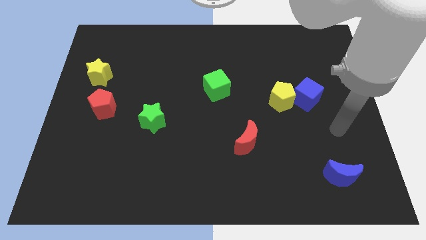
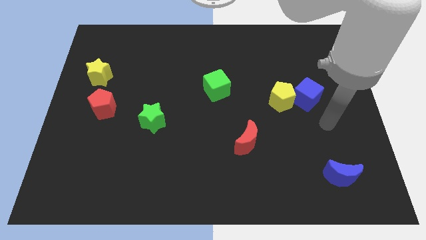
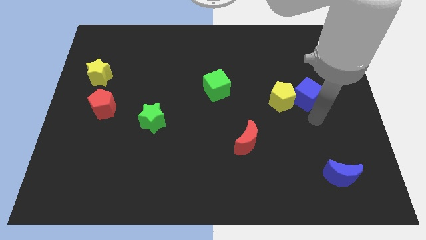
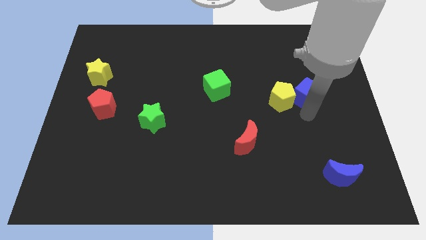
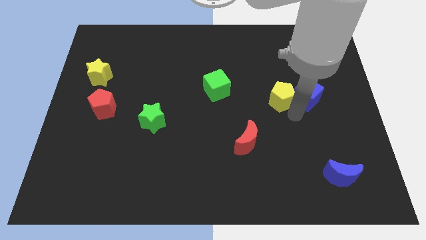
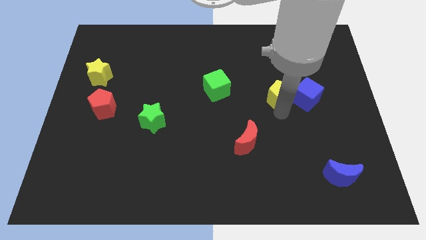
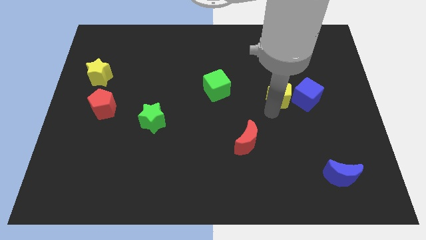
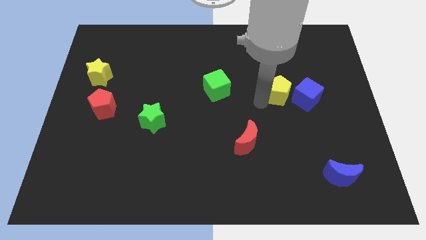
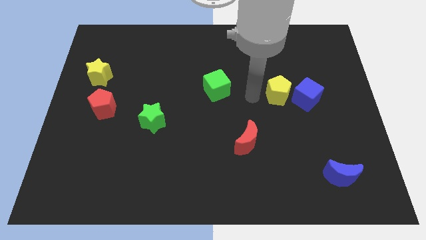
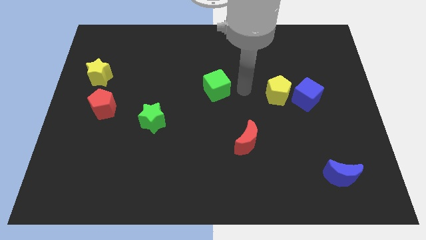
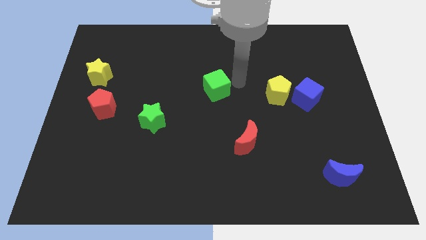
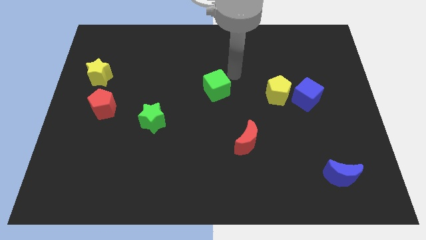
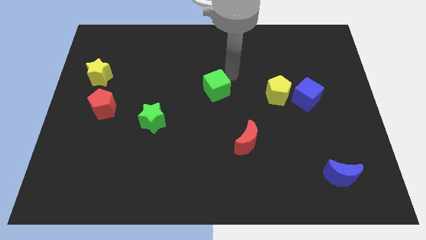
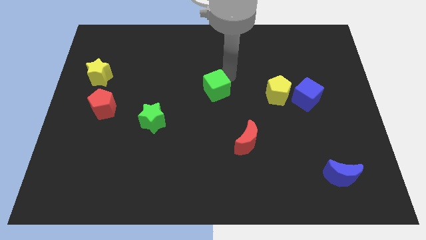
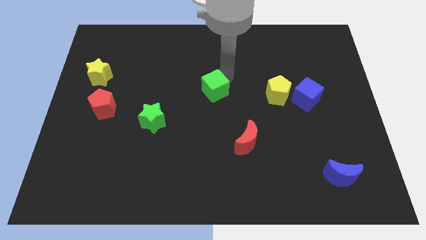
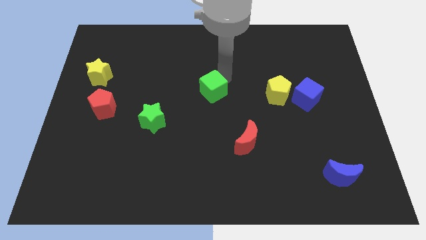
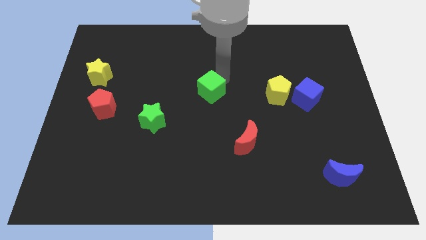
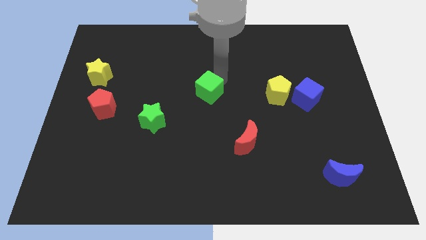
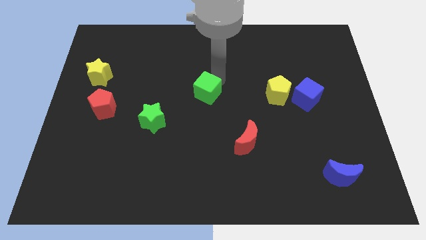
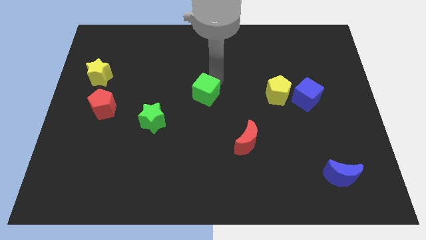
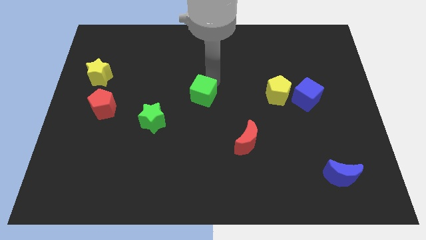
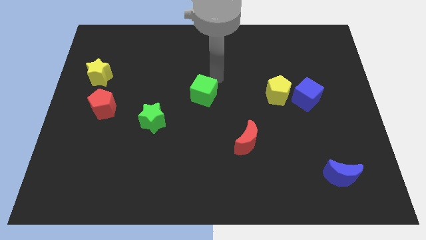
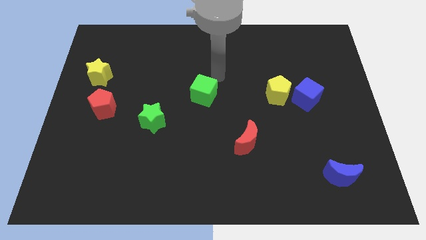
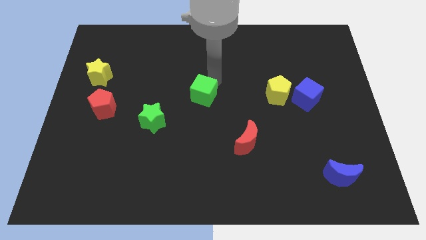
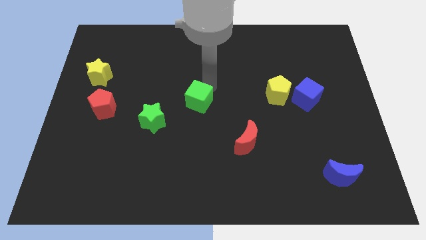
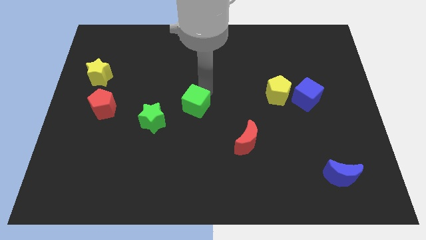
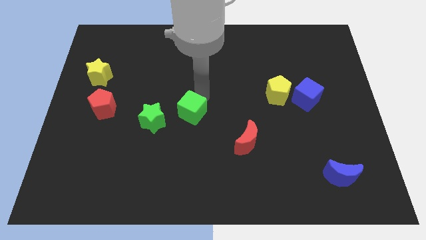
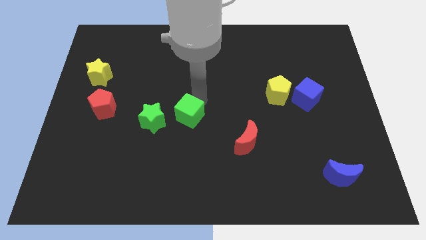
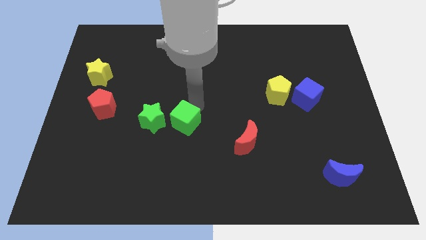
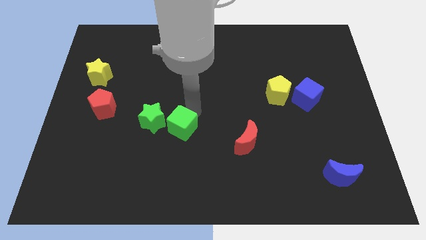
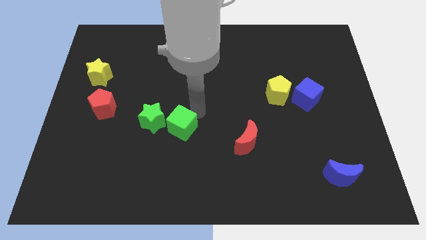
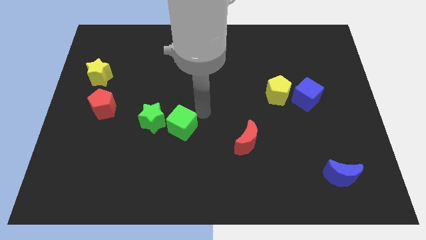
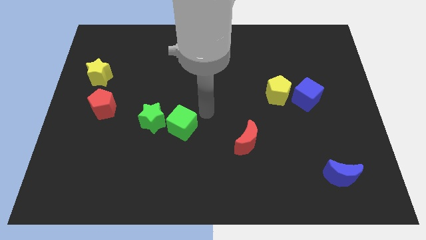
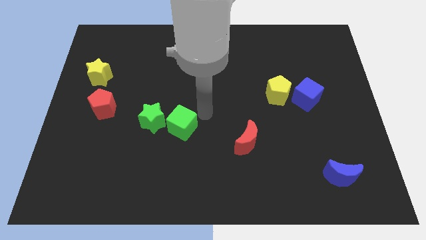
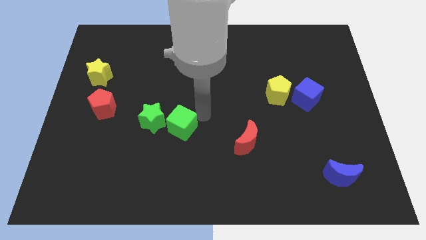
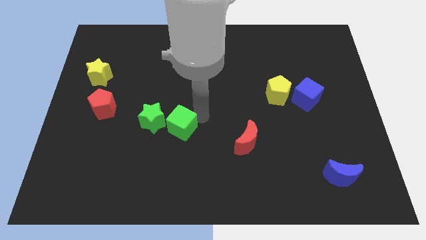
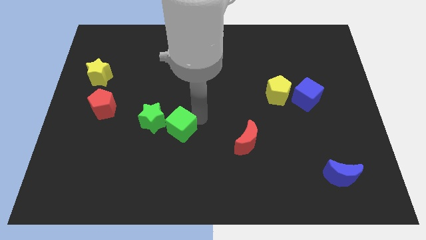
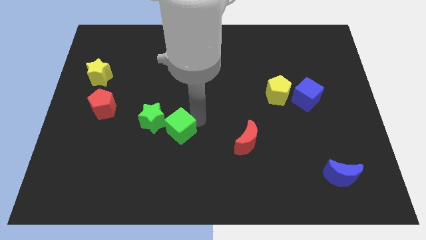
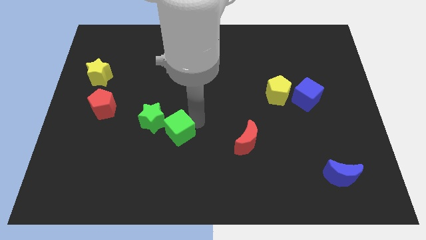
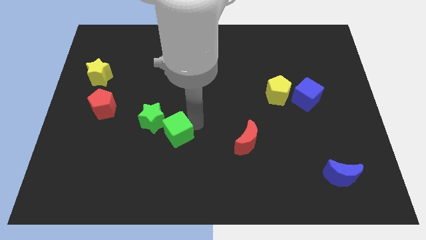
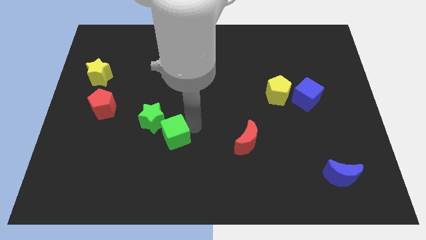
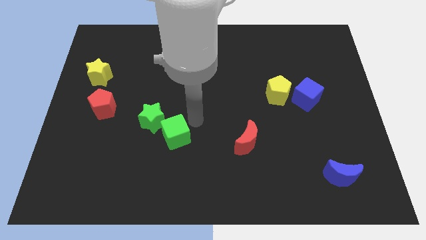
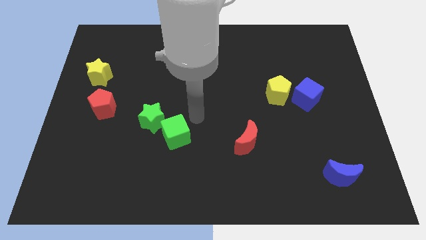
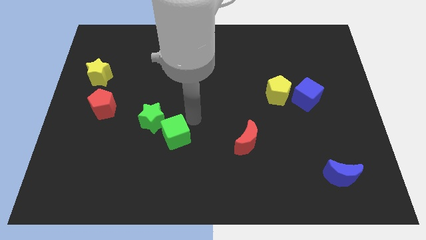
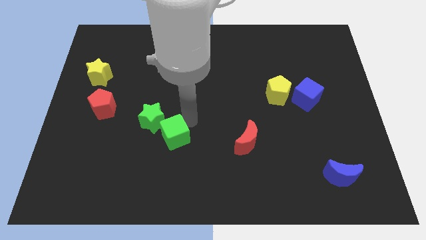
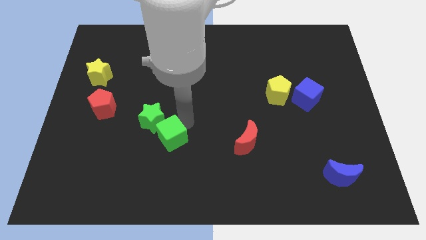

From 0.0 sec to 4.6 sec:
move the green cube below the green star

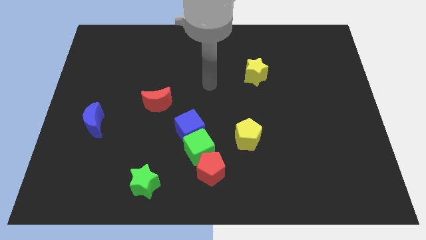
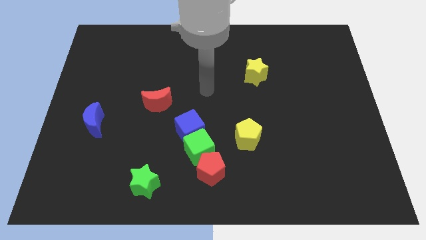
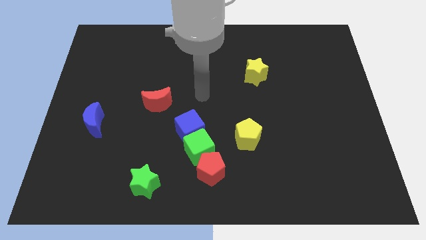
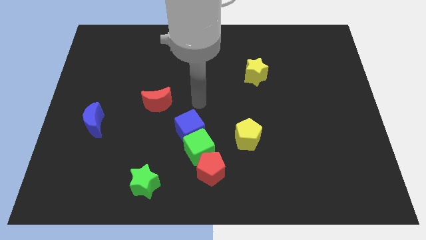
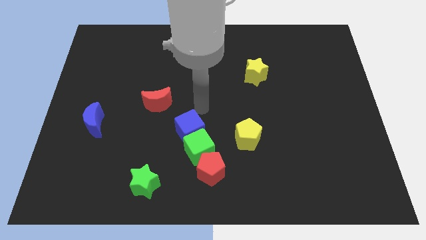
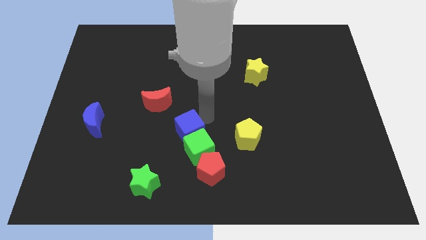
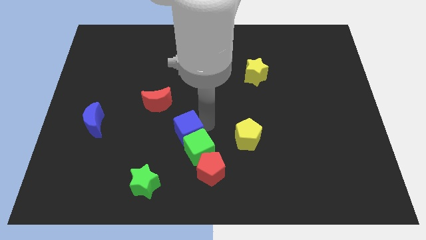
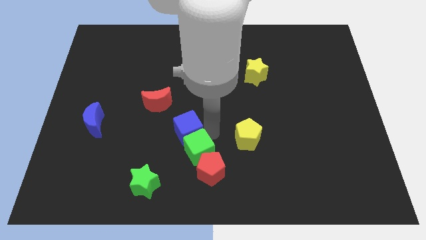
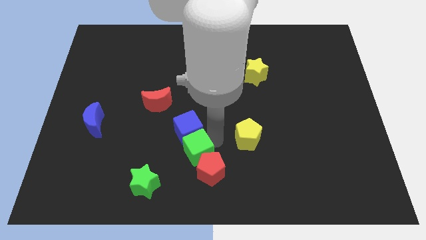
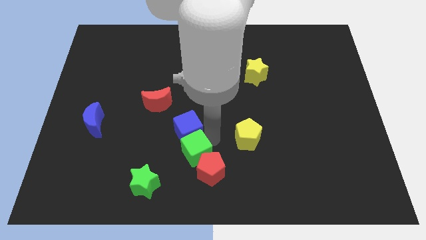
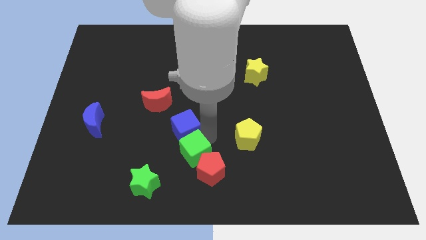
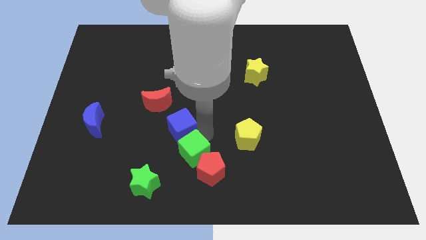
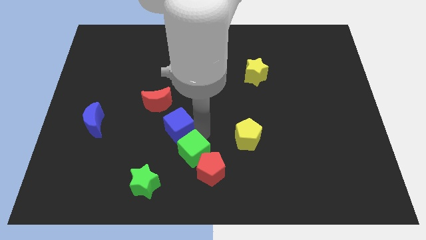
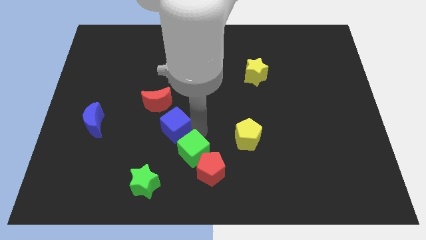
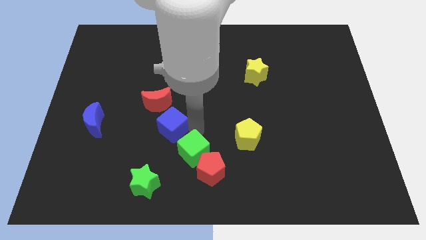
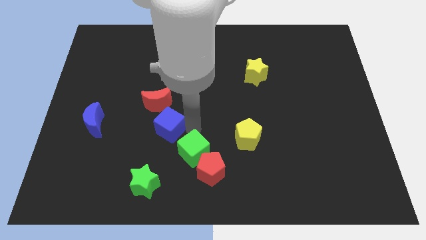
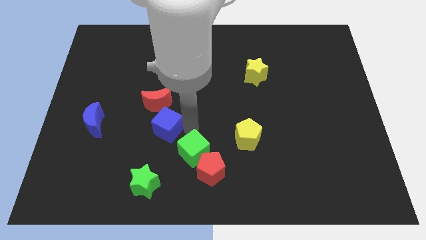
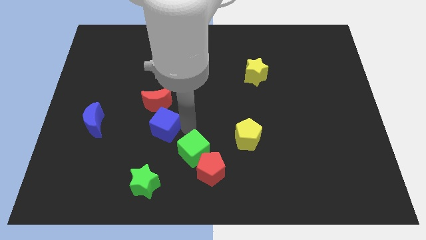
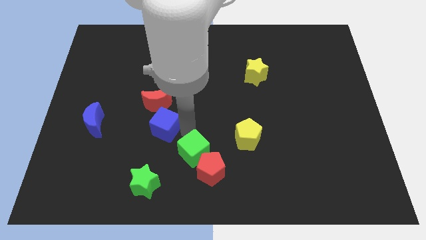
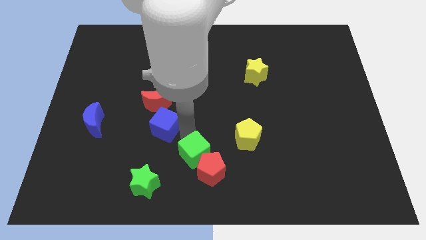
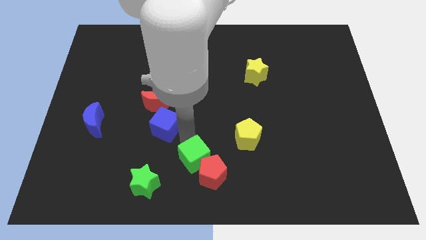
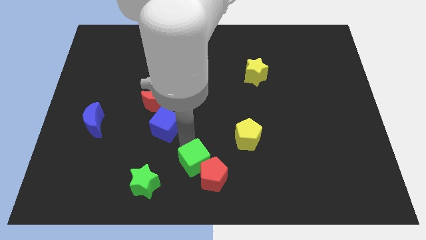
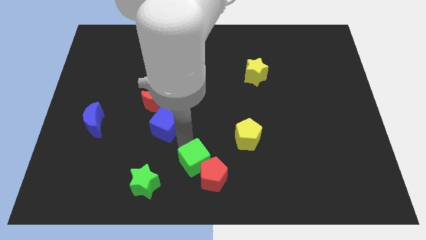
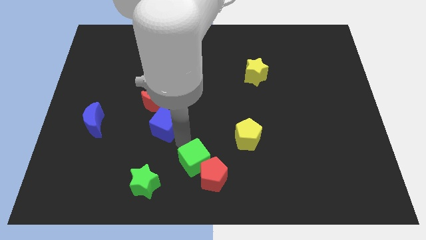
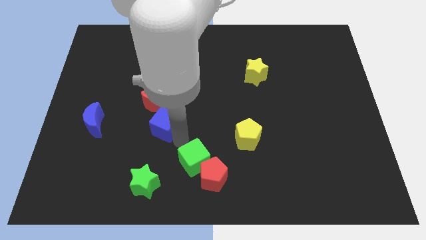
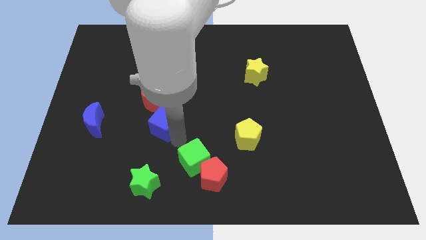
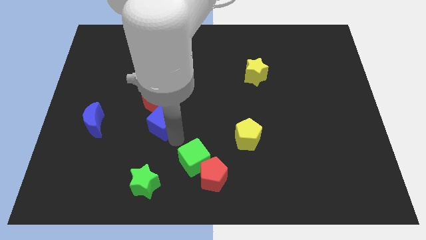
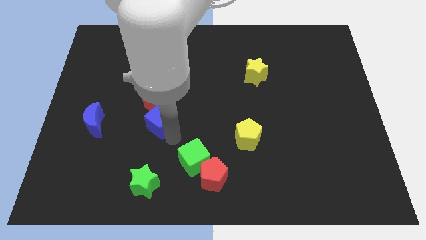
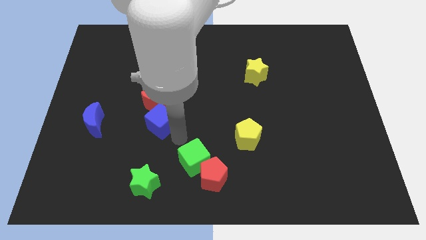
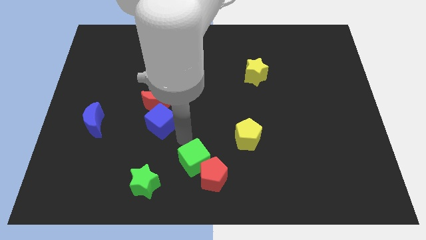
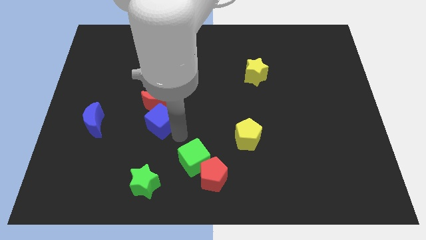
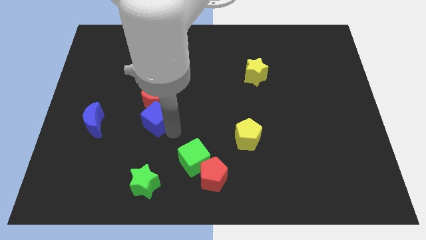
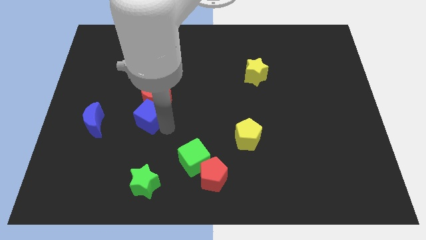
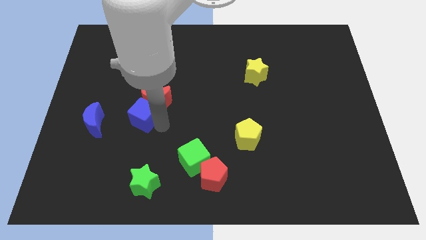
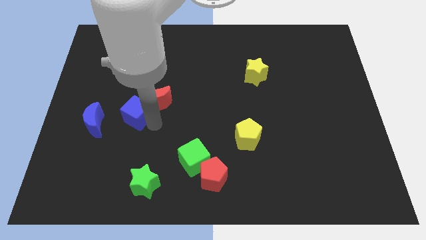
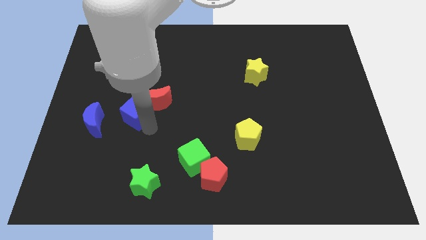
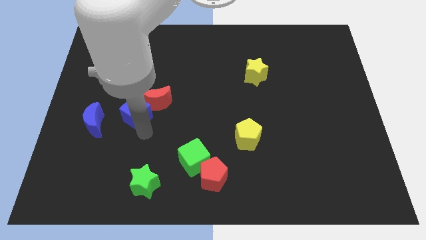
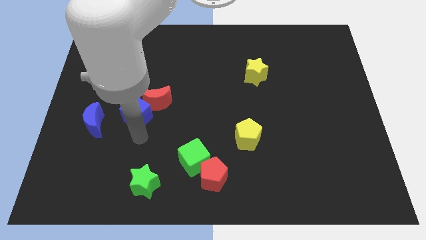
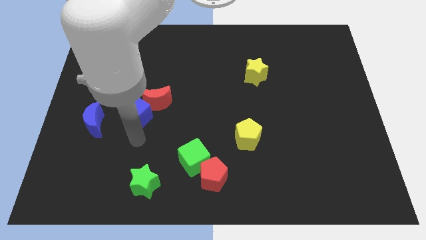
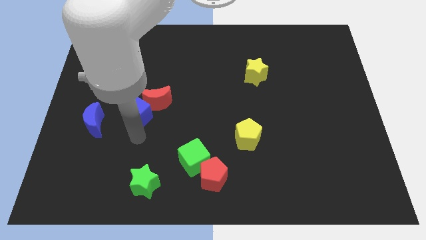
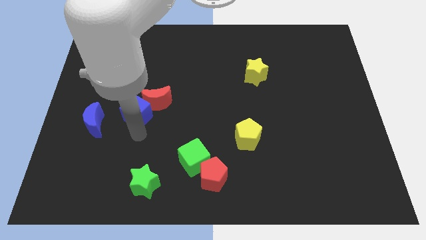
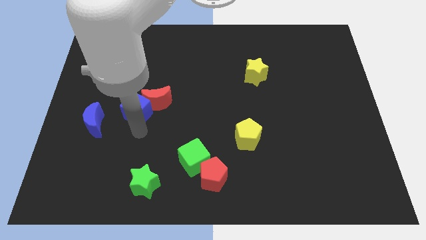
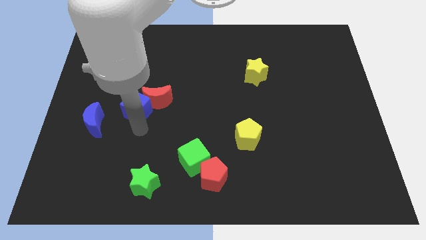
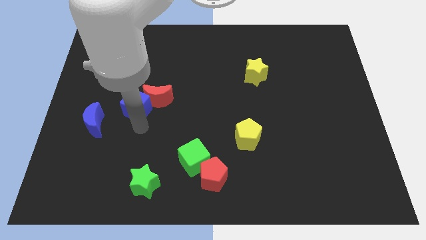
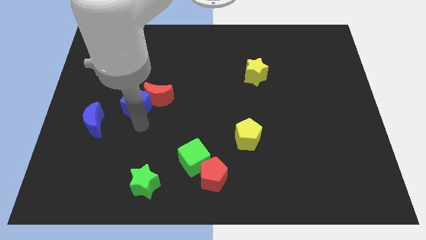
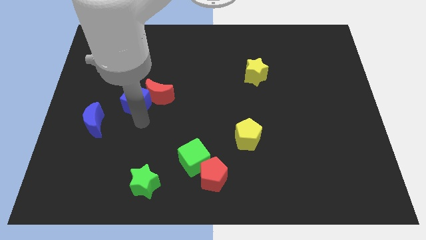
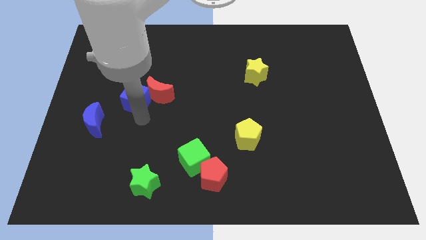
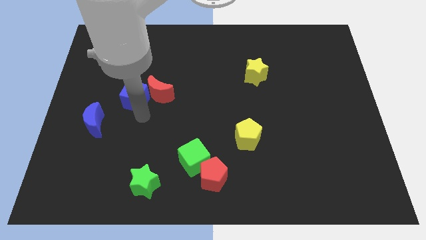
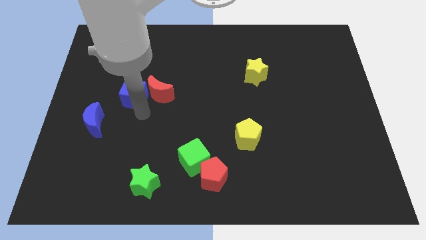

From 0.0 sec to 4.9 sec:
put the blue cube to the top left side of the red moon
